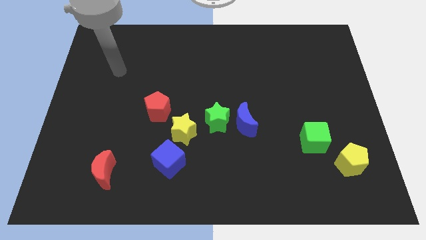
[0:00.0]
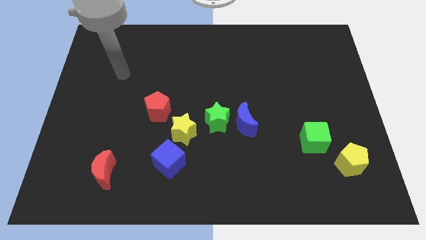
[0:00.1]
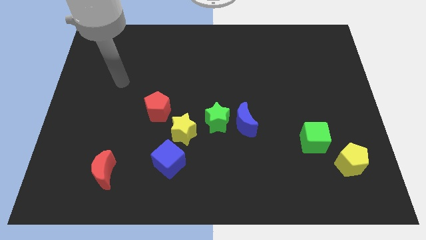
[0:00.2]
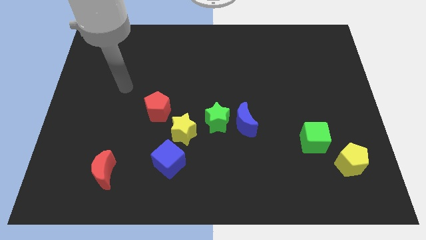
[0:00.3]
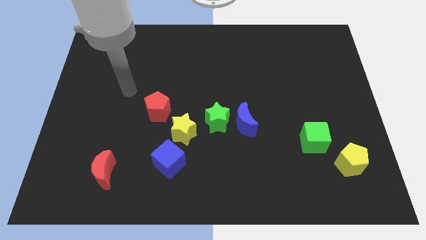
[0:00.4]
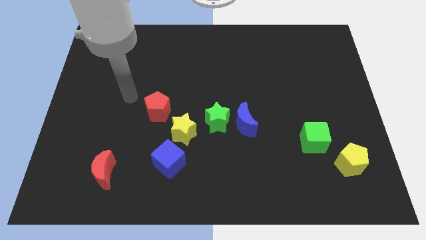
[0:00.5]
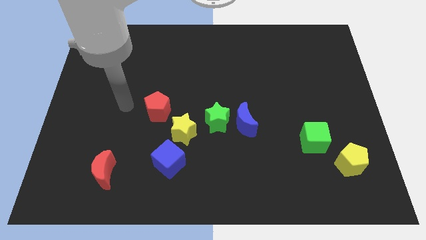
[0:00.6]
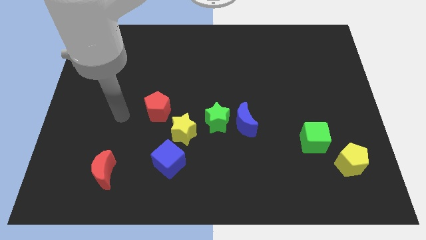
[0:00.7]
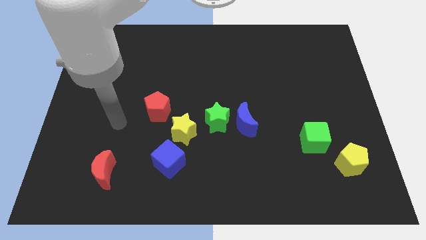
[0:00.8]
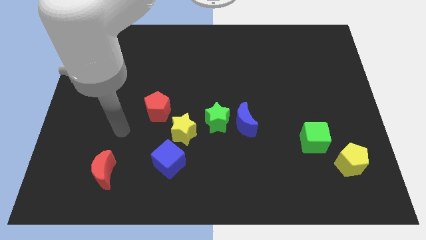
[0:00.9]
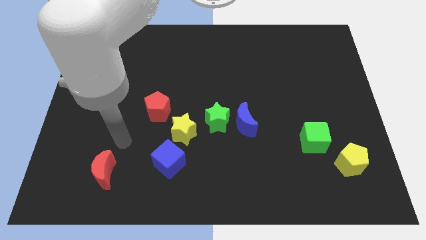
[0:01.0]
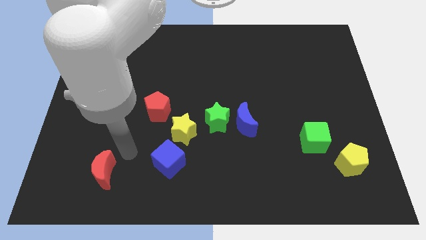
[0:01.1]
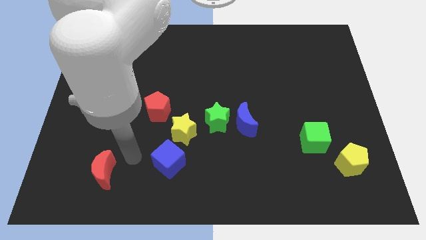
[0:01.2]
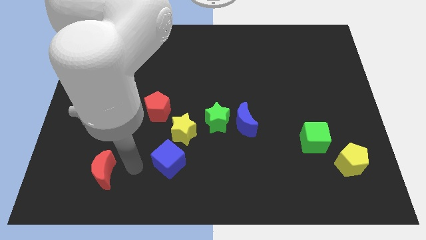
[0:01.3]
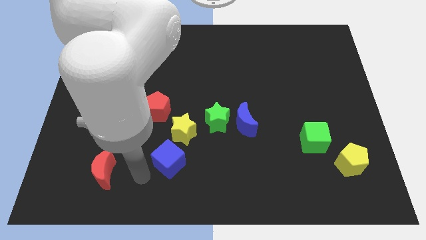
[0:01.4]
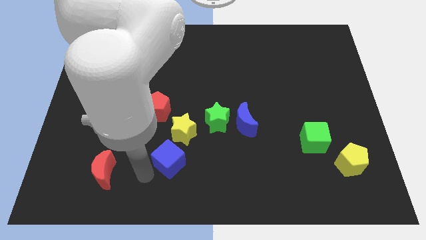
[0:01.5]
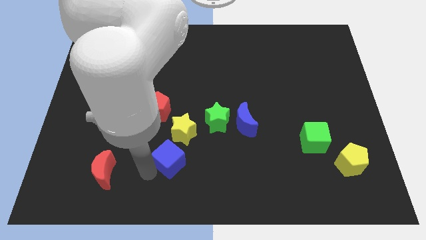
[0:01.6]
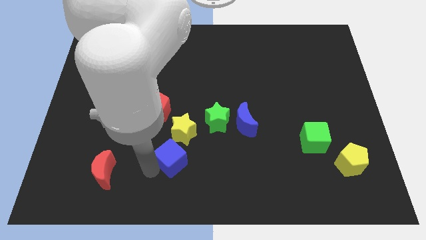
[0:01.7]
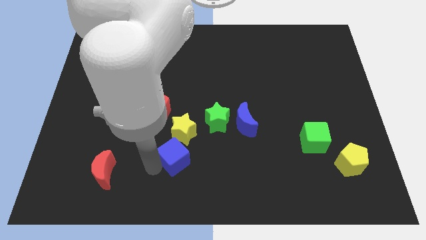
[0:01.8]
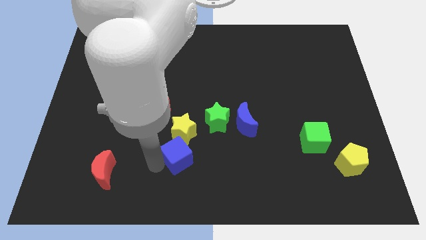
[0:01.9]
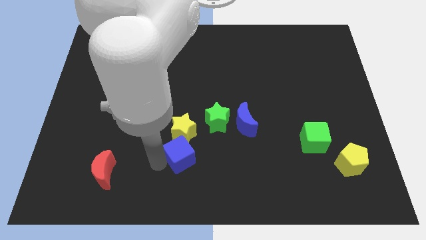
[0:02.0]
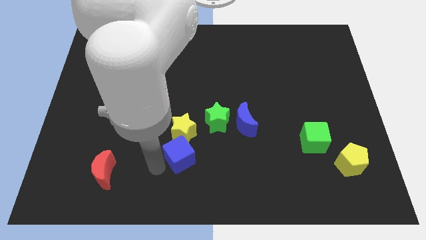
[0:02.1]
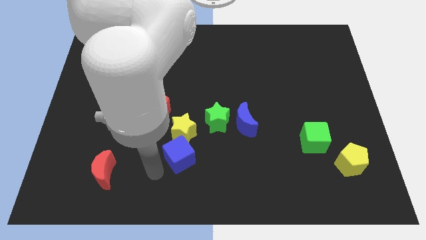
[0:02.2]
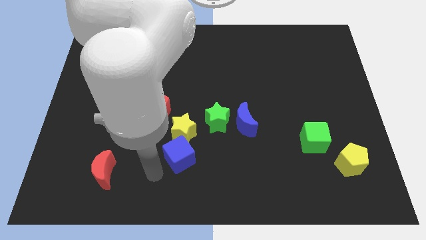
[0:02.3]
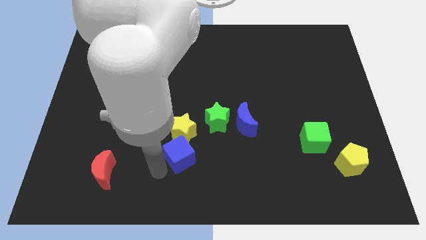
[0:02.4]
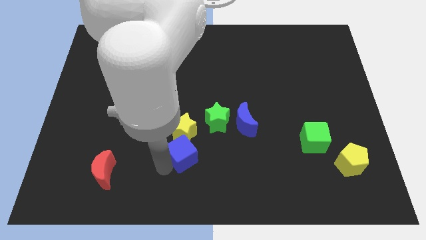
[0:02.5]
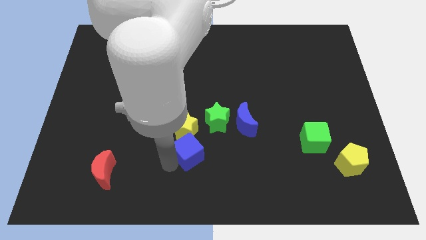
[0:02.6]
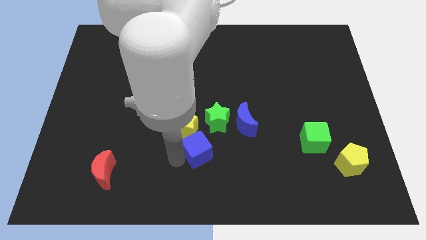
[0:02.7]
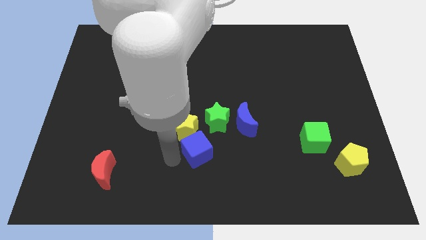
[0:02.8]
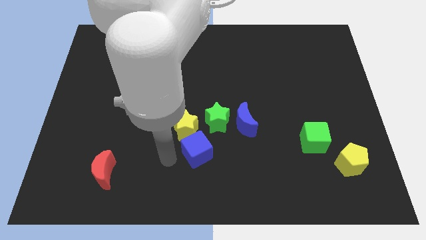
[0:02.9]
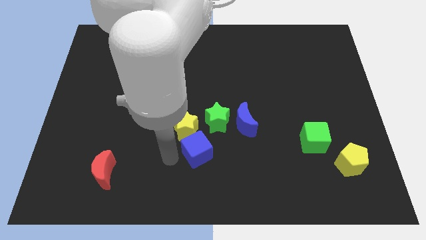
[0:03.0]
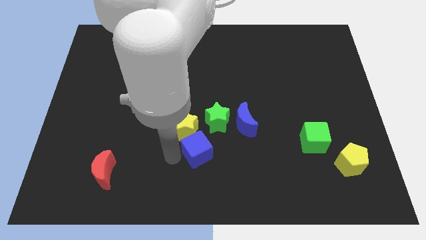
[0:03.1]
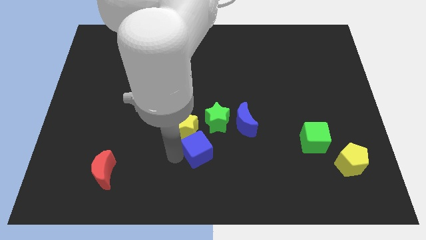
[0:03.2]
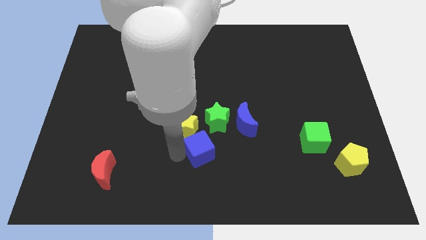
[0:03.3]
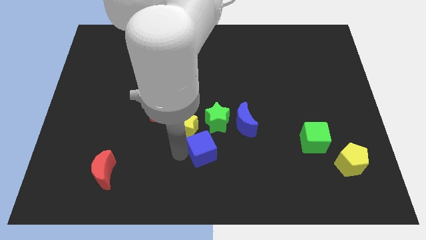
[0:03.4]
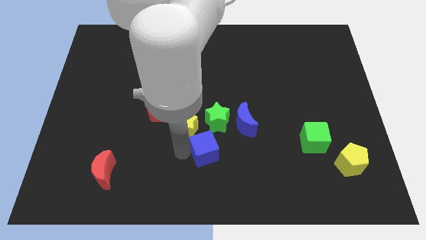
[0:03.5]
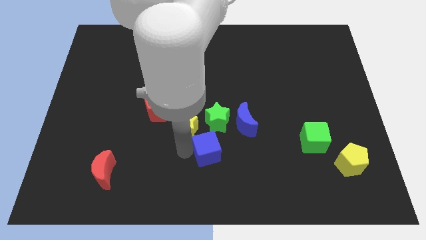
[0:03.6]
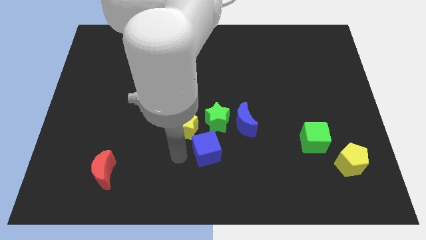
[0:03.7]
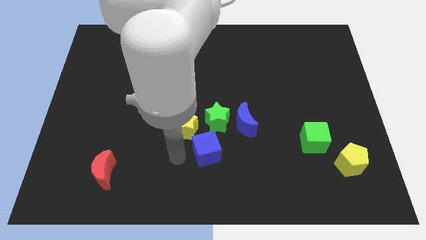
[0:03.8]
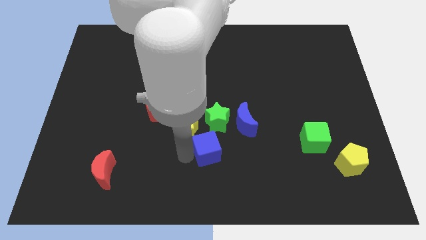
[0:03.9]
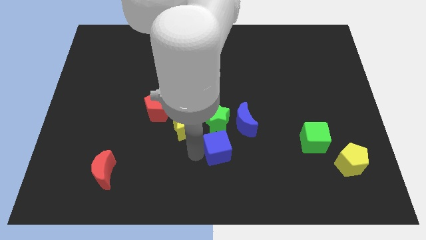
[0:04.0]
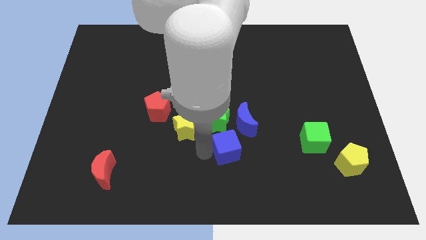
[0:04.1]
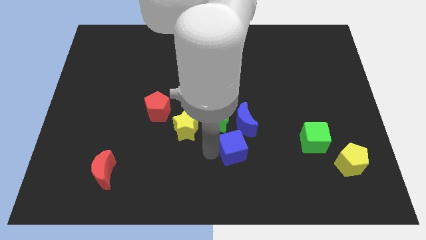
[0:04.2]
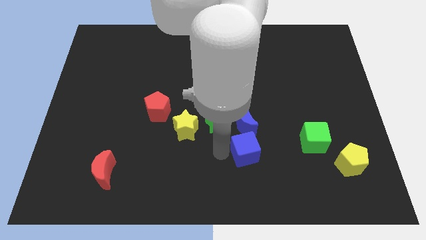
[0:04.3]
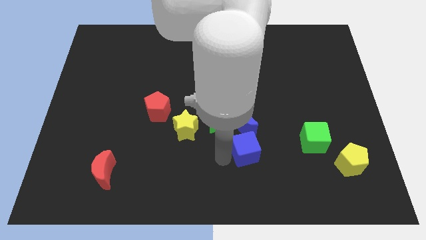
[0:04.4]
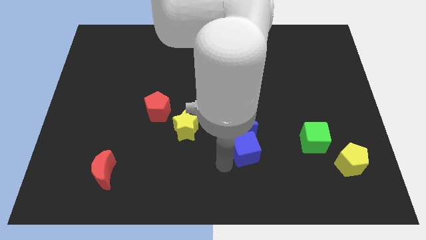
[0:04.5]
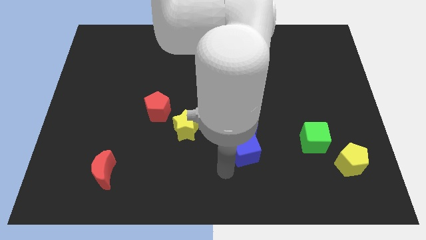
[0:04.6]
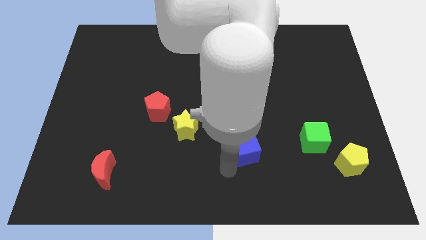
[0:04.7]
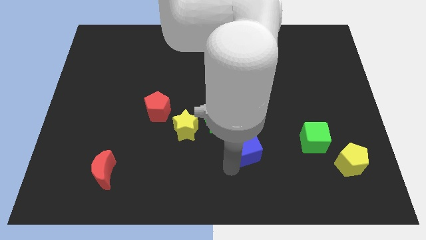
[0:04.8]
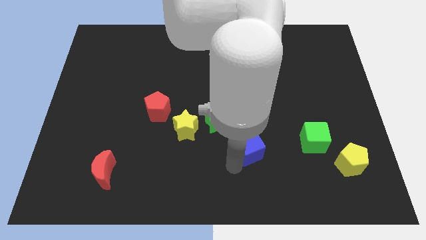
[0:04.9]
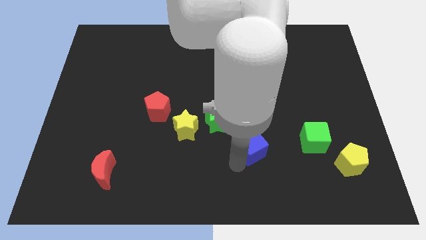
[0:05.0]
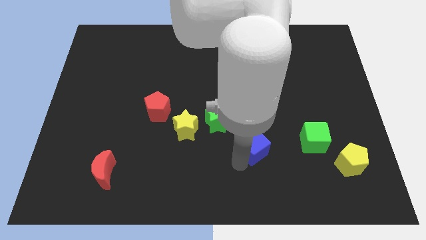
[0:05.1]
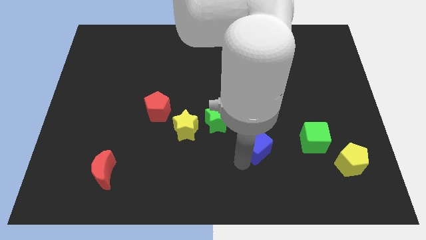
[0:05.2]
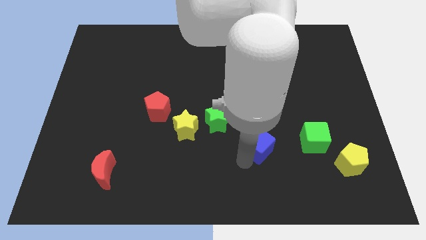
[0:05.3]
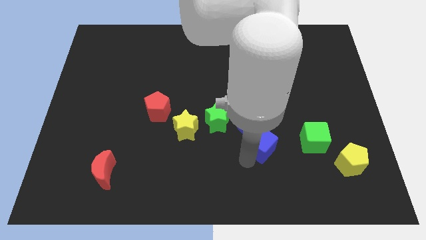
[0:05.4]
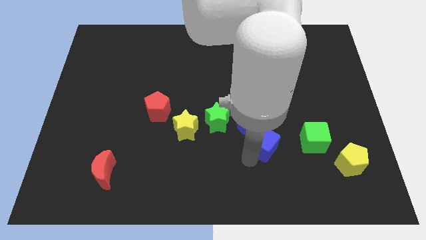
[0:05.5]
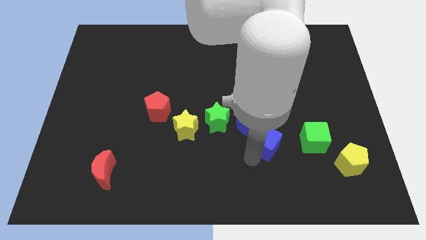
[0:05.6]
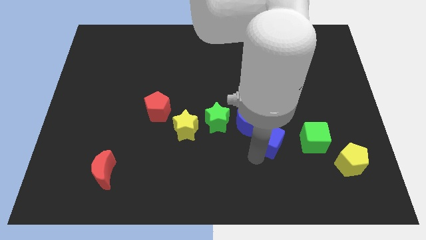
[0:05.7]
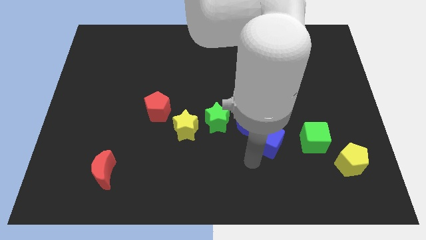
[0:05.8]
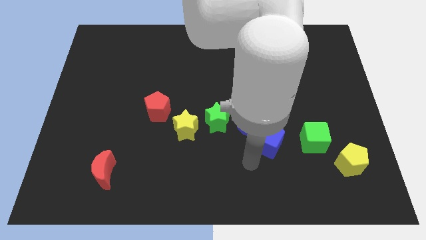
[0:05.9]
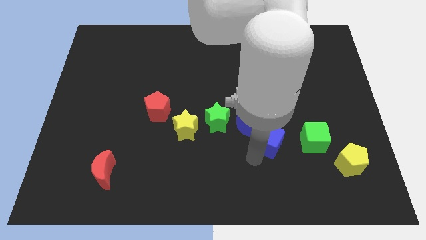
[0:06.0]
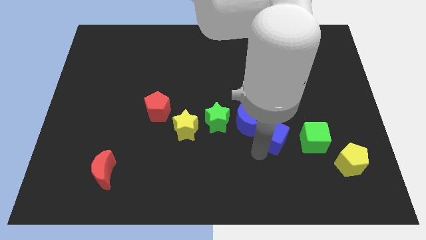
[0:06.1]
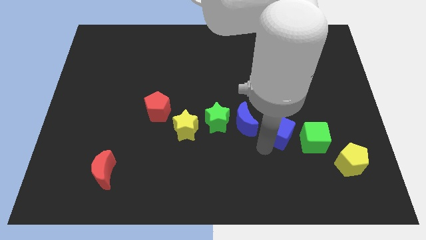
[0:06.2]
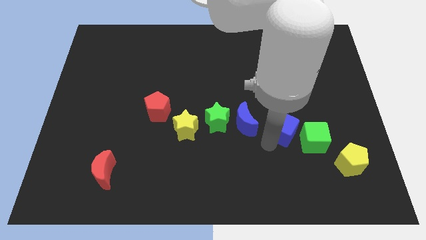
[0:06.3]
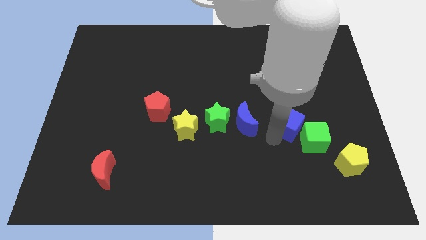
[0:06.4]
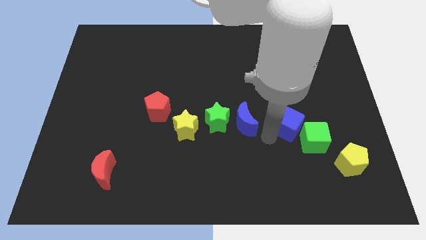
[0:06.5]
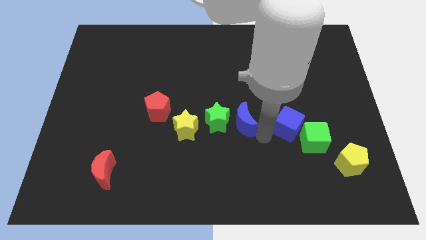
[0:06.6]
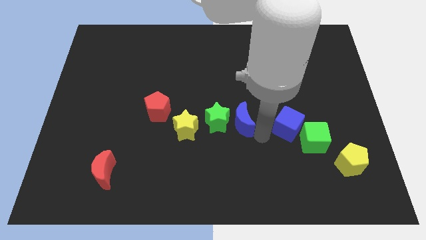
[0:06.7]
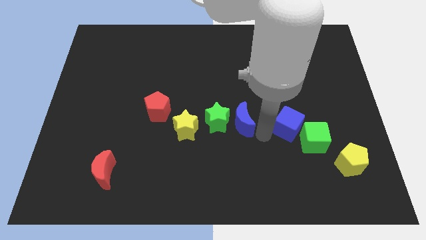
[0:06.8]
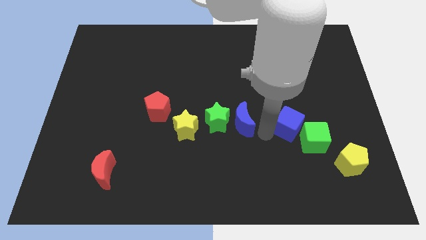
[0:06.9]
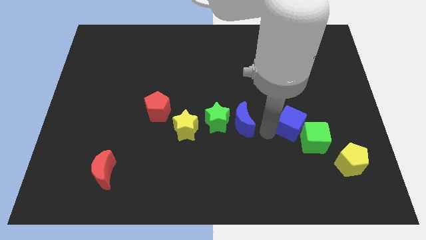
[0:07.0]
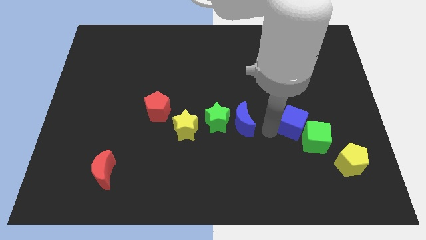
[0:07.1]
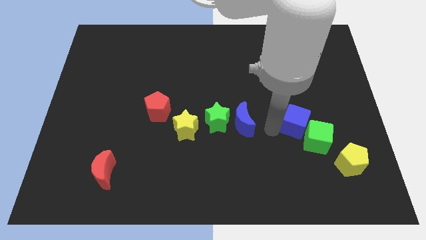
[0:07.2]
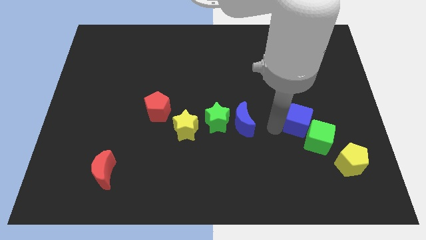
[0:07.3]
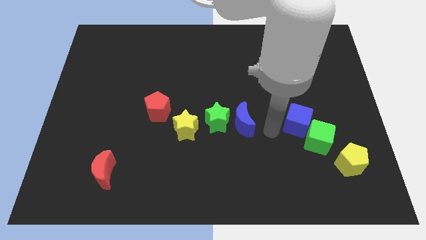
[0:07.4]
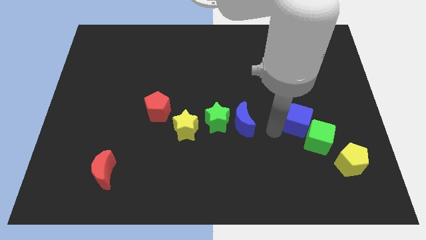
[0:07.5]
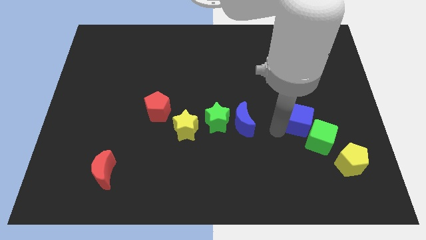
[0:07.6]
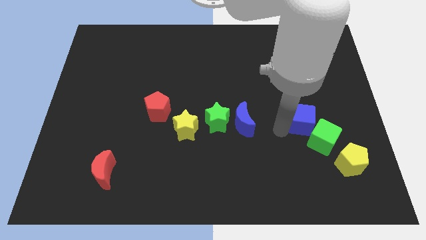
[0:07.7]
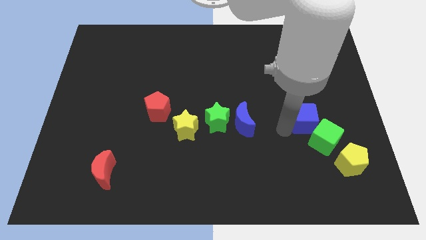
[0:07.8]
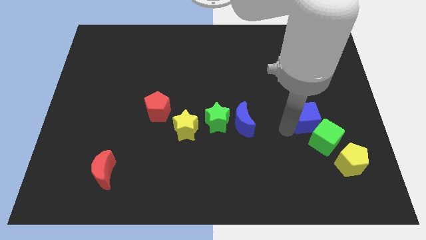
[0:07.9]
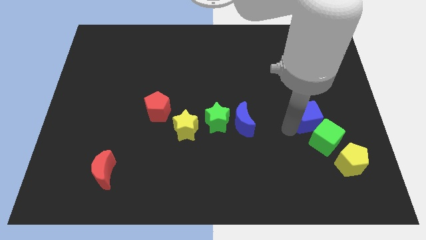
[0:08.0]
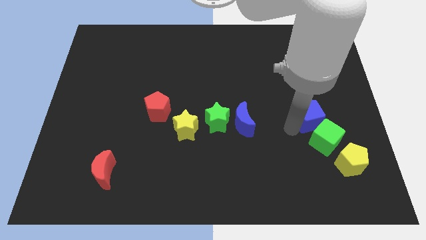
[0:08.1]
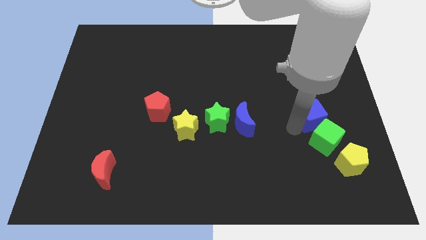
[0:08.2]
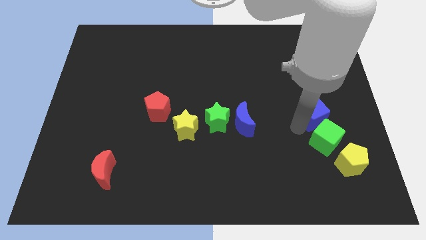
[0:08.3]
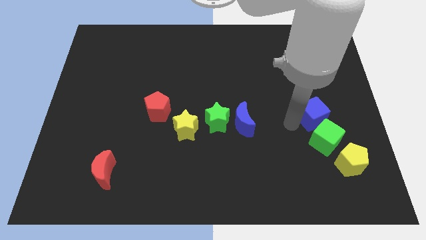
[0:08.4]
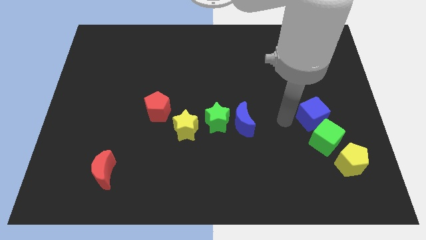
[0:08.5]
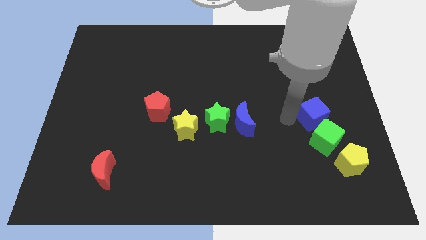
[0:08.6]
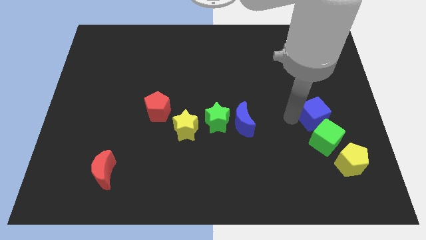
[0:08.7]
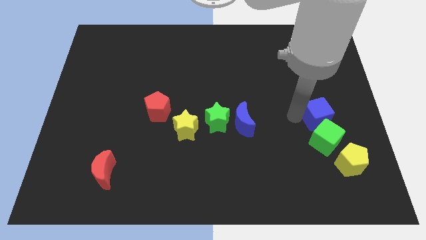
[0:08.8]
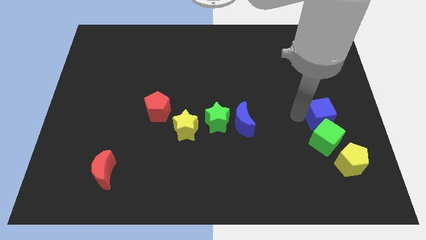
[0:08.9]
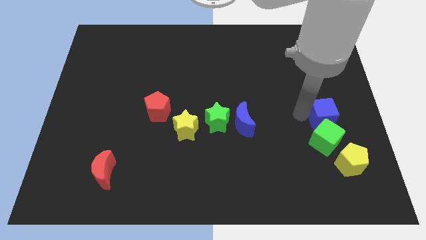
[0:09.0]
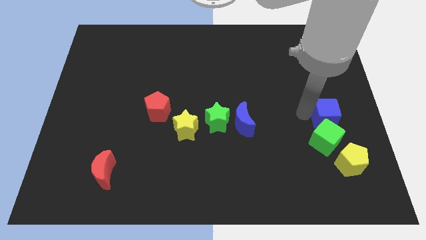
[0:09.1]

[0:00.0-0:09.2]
put the blue cube to the right side
